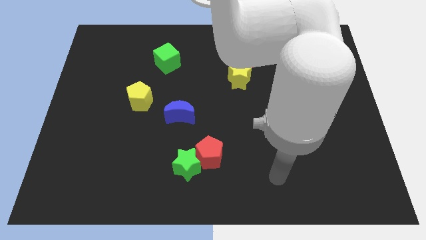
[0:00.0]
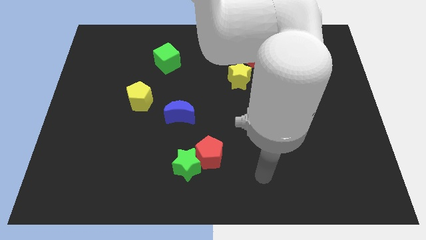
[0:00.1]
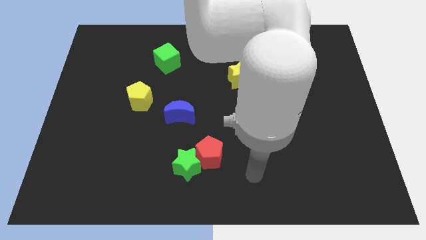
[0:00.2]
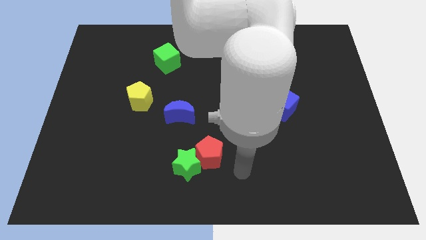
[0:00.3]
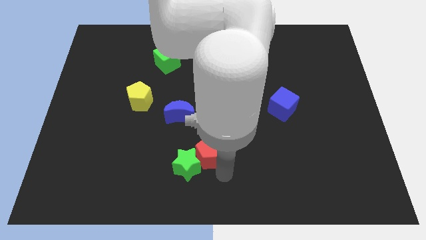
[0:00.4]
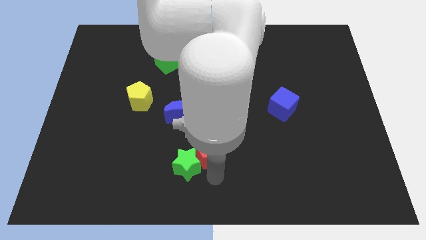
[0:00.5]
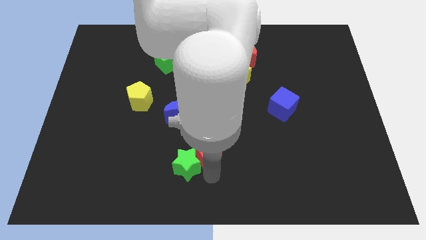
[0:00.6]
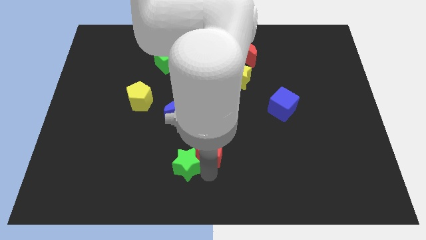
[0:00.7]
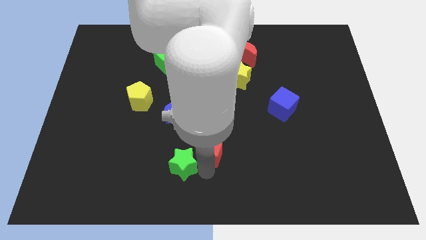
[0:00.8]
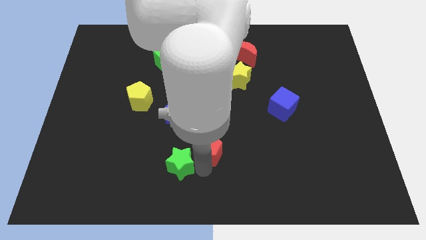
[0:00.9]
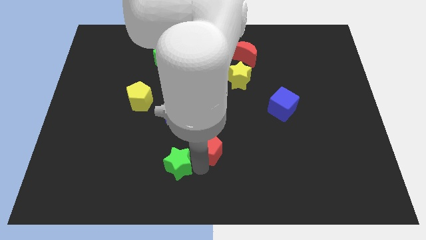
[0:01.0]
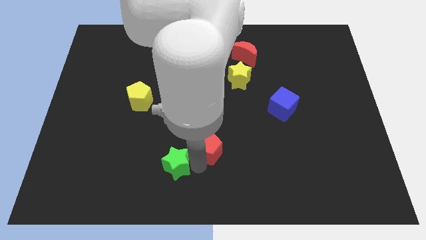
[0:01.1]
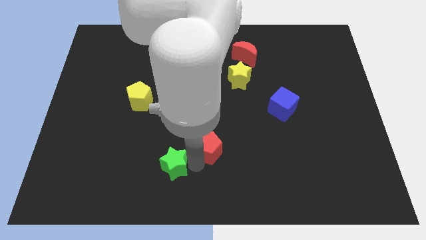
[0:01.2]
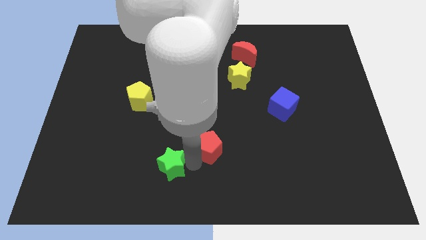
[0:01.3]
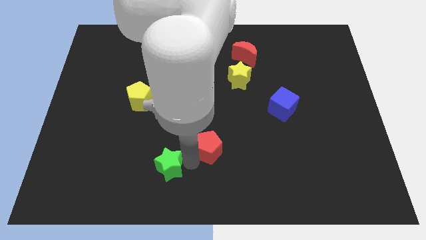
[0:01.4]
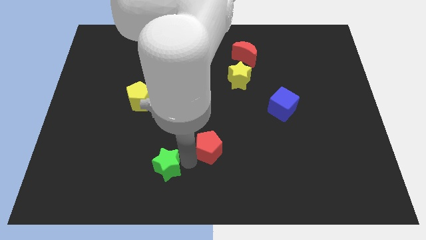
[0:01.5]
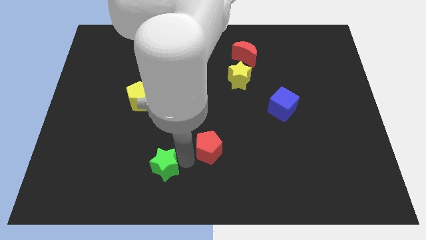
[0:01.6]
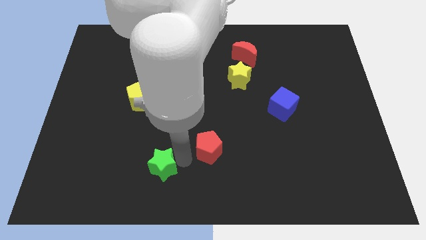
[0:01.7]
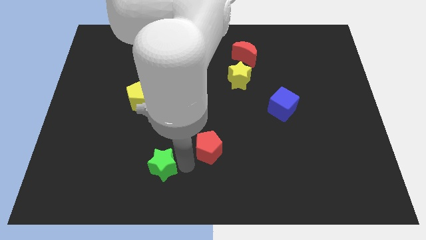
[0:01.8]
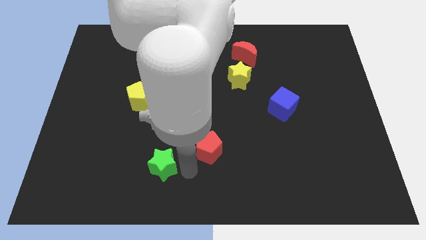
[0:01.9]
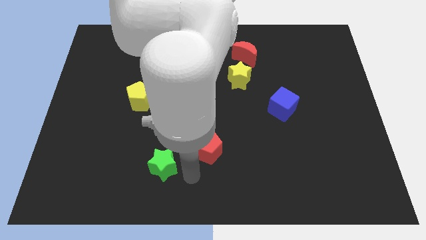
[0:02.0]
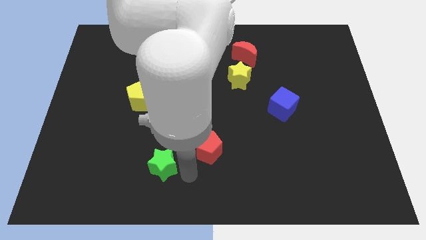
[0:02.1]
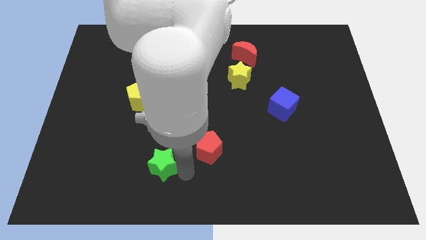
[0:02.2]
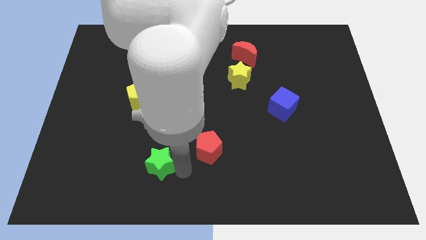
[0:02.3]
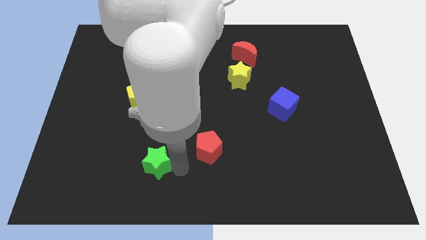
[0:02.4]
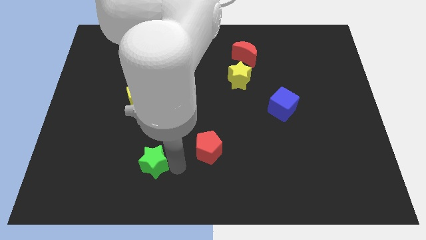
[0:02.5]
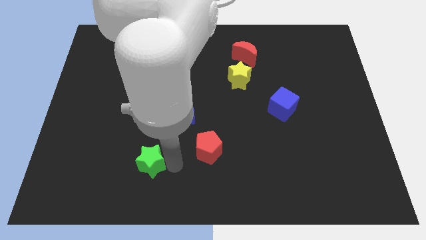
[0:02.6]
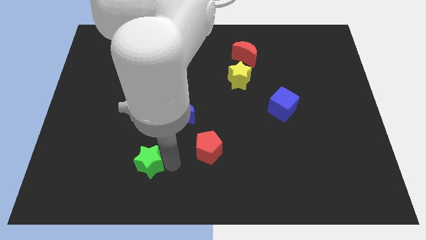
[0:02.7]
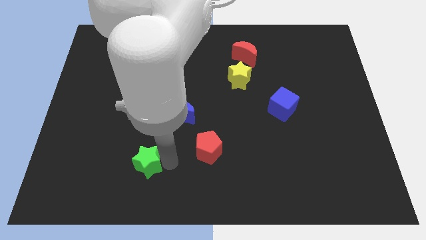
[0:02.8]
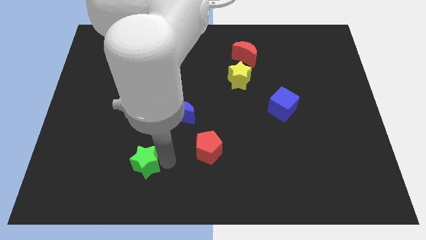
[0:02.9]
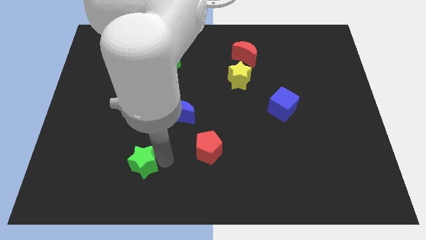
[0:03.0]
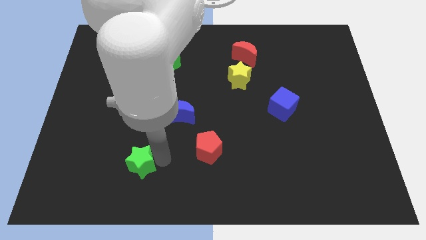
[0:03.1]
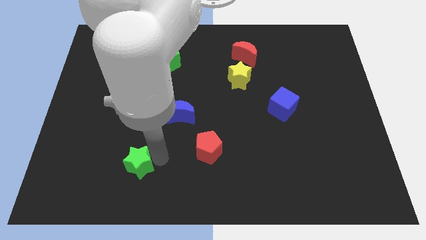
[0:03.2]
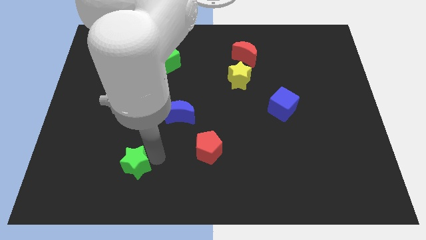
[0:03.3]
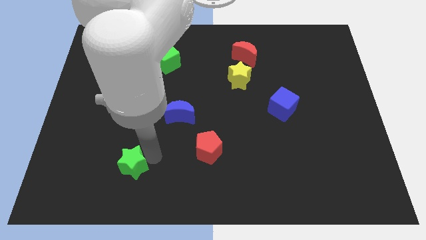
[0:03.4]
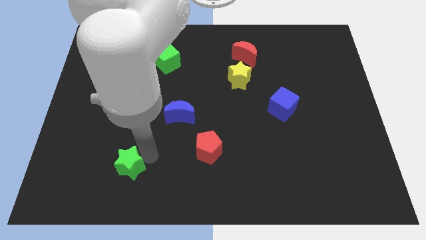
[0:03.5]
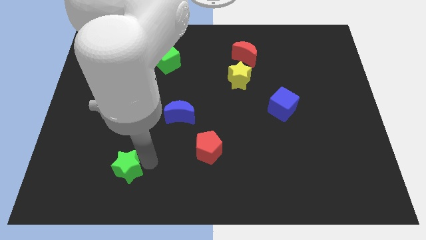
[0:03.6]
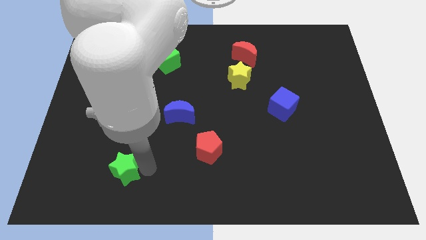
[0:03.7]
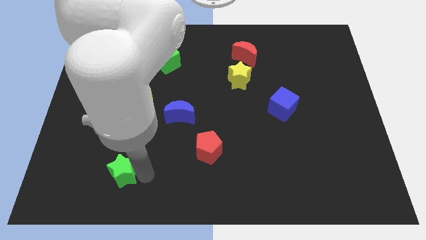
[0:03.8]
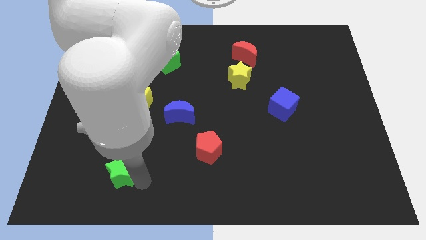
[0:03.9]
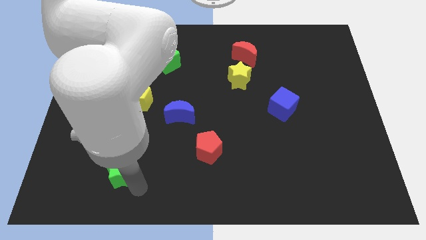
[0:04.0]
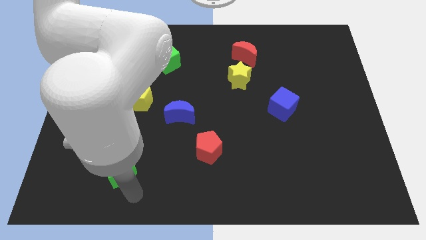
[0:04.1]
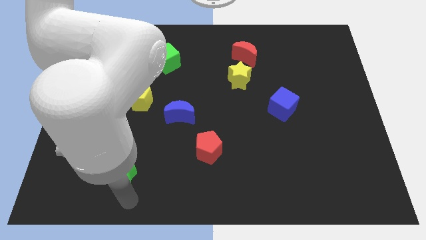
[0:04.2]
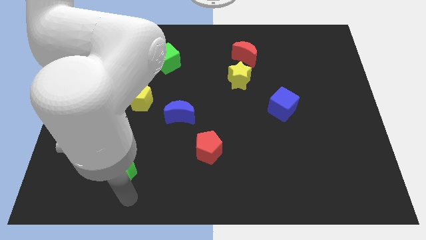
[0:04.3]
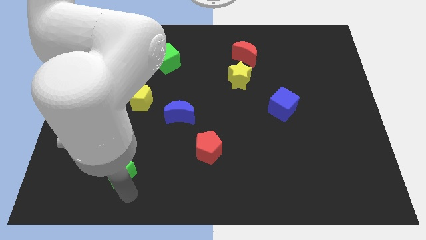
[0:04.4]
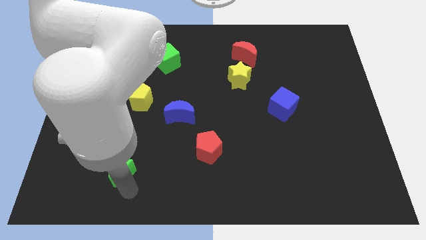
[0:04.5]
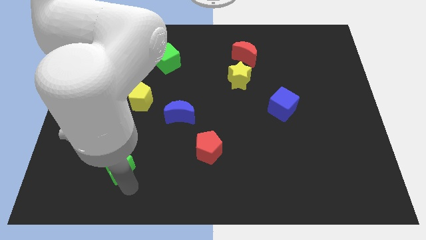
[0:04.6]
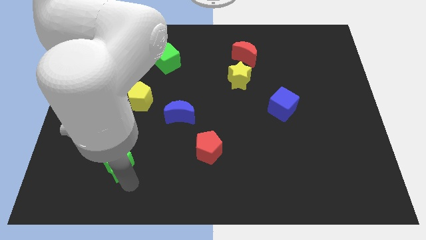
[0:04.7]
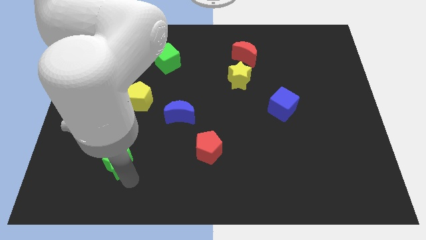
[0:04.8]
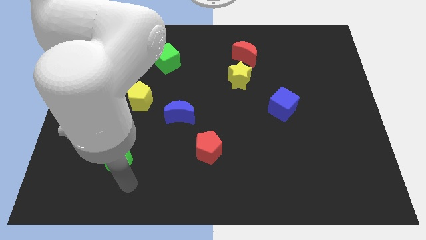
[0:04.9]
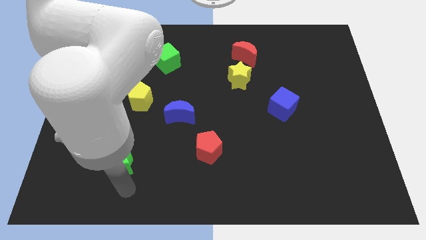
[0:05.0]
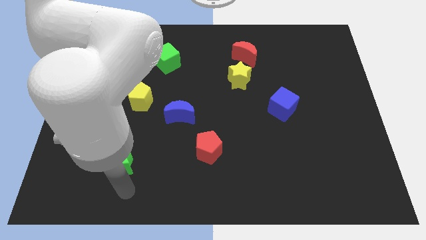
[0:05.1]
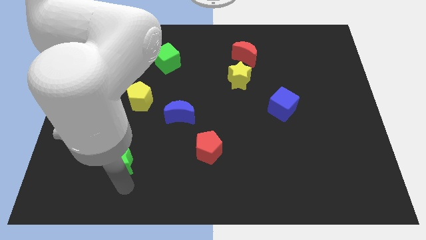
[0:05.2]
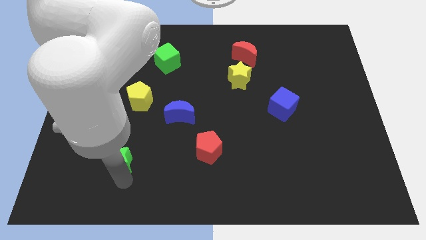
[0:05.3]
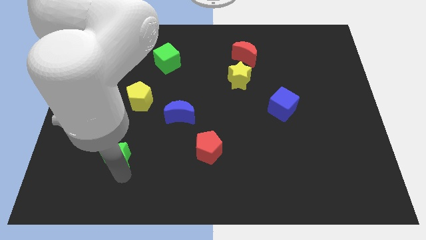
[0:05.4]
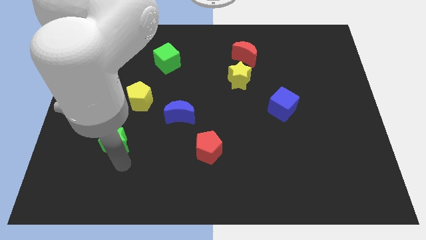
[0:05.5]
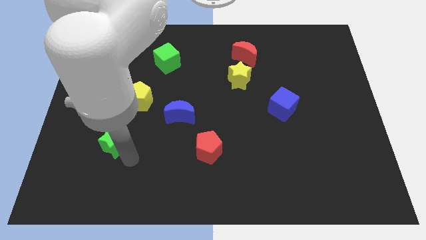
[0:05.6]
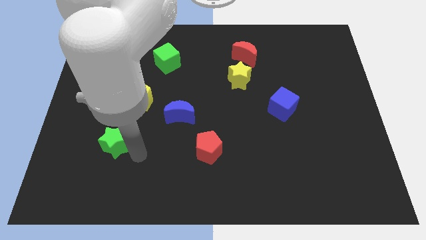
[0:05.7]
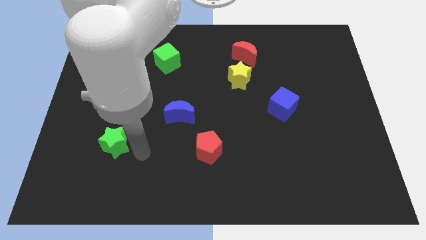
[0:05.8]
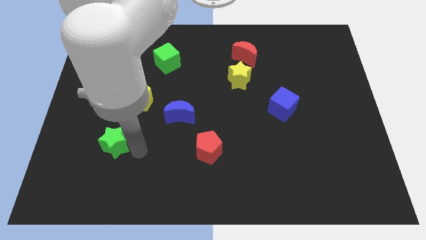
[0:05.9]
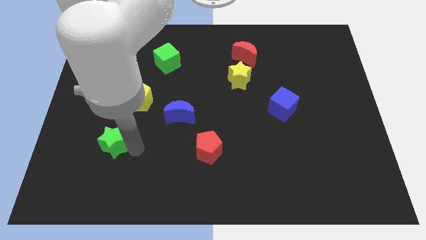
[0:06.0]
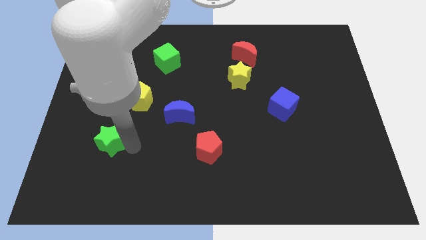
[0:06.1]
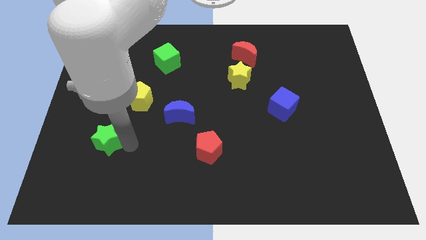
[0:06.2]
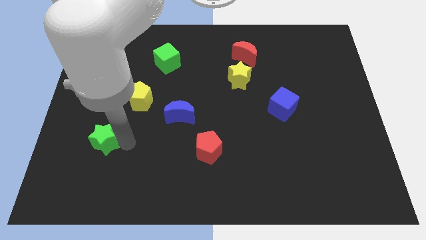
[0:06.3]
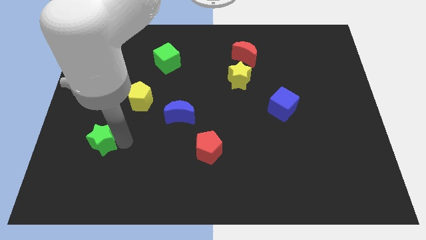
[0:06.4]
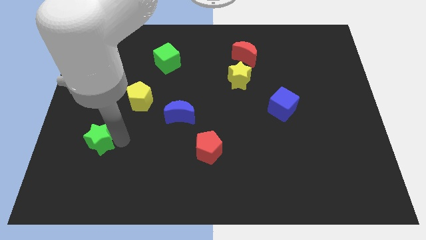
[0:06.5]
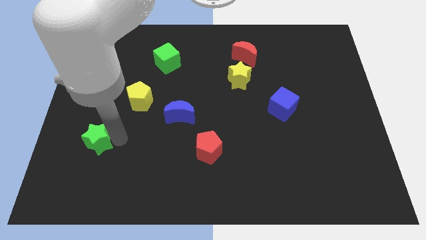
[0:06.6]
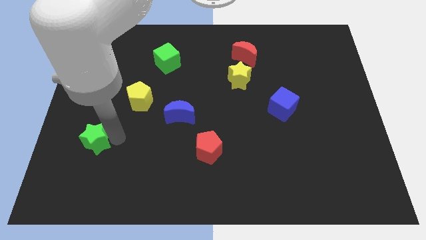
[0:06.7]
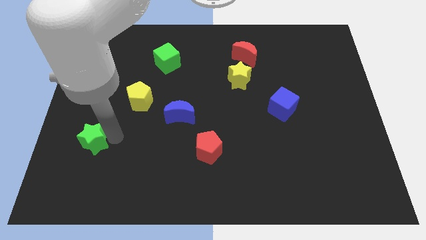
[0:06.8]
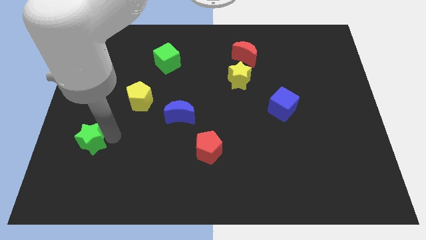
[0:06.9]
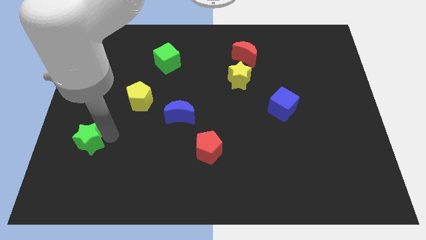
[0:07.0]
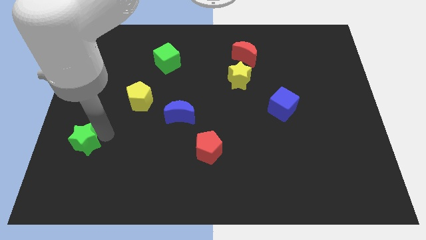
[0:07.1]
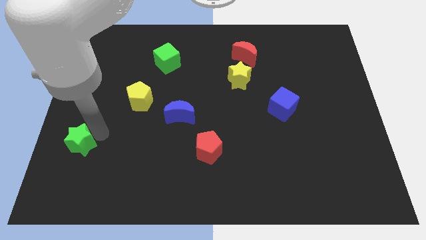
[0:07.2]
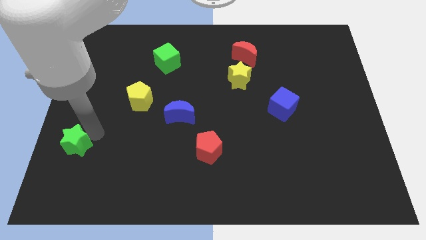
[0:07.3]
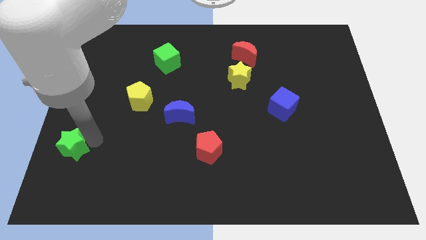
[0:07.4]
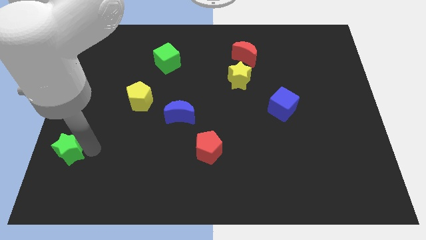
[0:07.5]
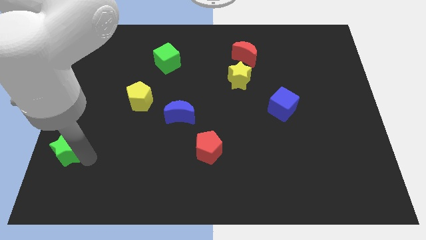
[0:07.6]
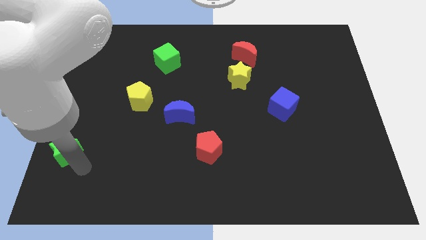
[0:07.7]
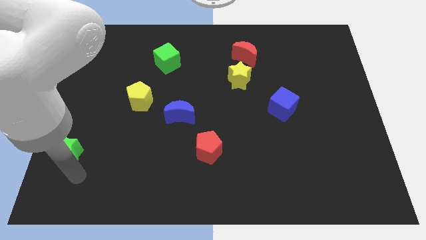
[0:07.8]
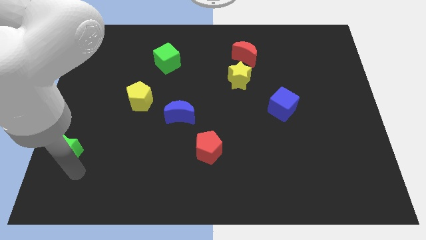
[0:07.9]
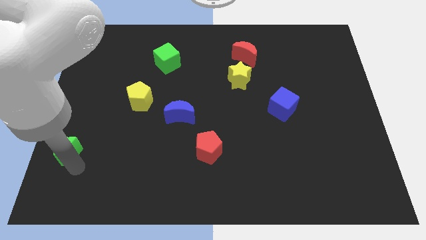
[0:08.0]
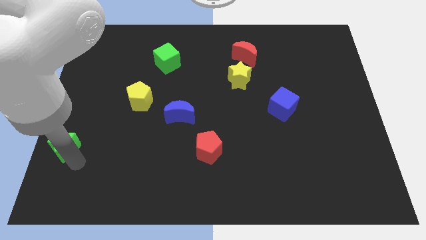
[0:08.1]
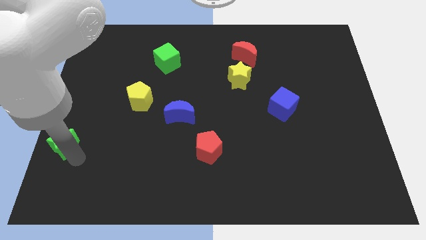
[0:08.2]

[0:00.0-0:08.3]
move the green star to the left side of the board
